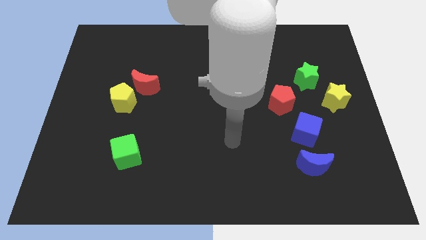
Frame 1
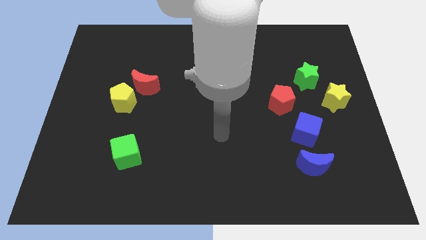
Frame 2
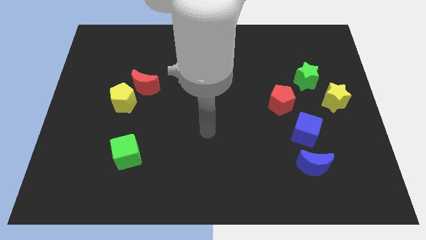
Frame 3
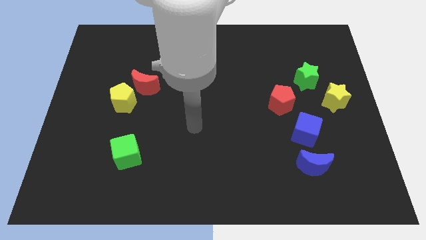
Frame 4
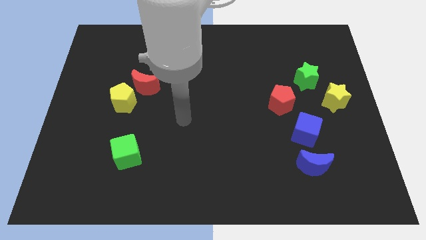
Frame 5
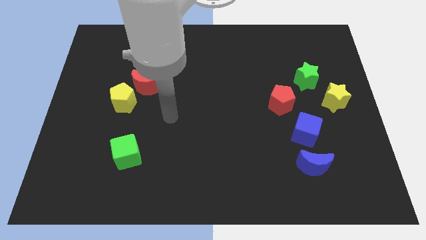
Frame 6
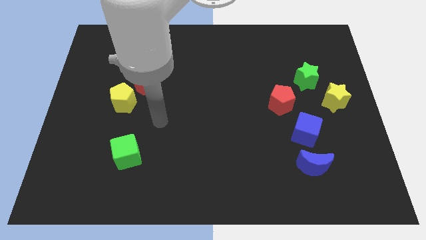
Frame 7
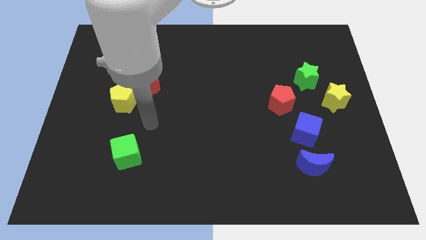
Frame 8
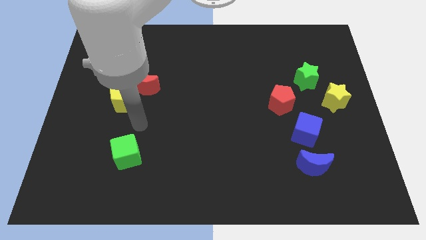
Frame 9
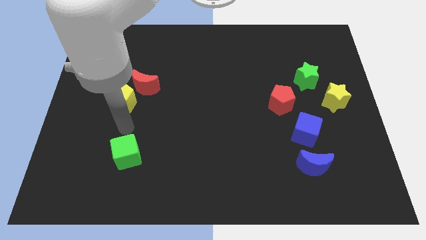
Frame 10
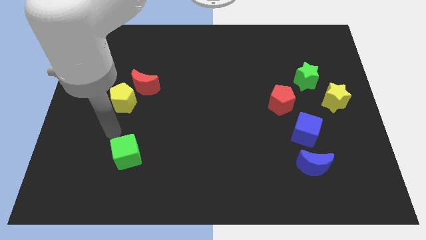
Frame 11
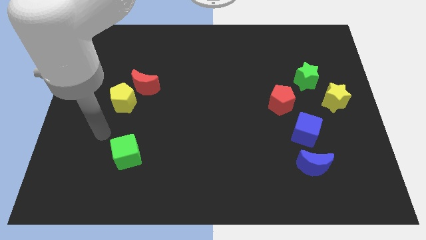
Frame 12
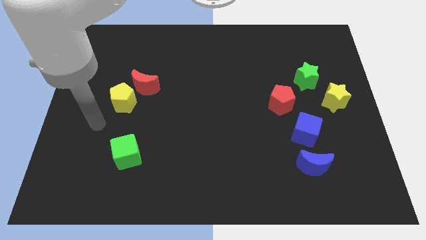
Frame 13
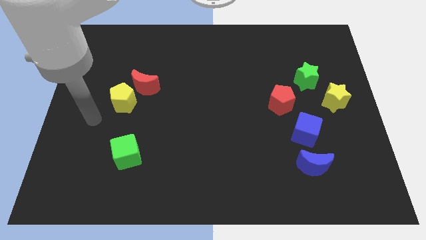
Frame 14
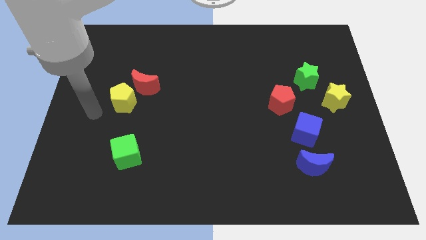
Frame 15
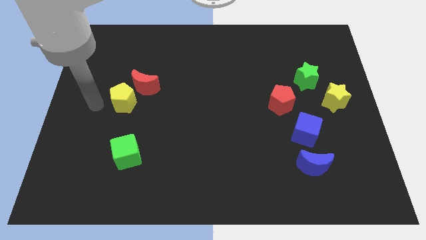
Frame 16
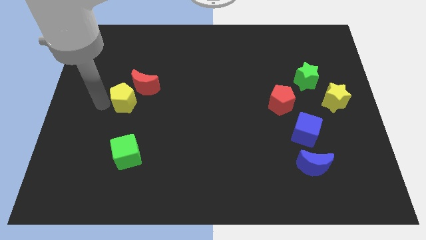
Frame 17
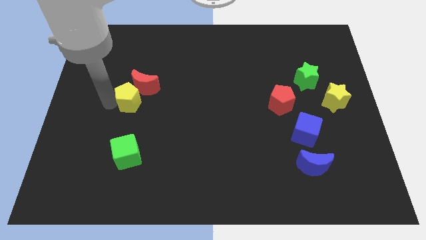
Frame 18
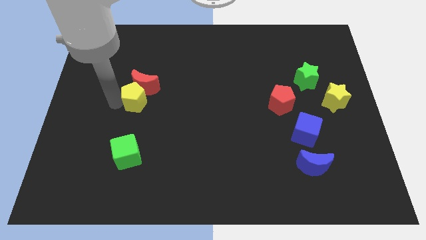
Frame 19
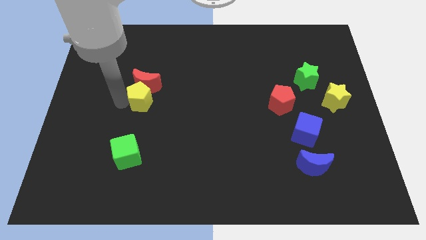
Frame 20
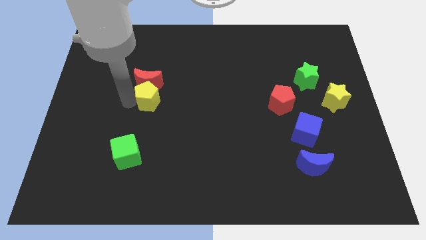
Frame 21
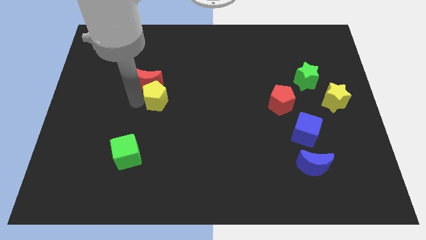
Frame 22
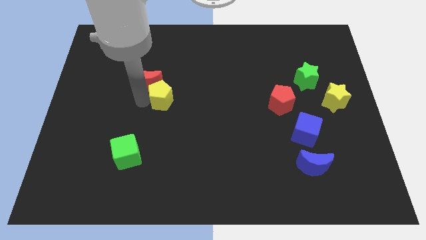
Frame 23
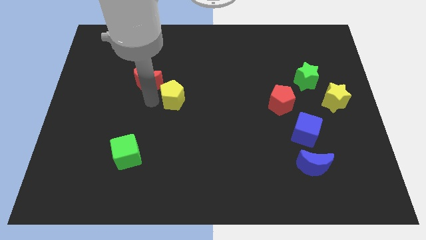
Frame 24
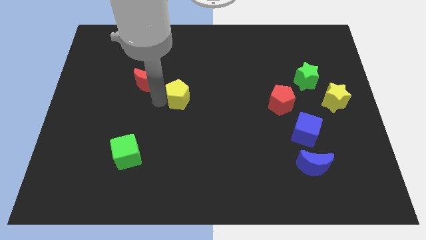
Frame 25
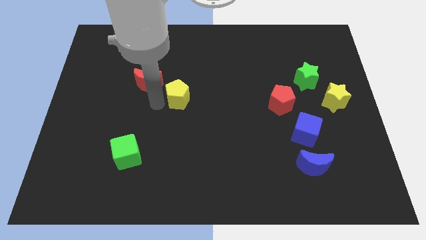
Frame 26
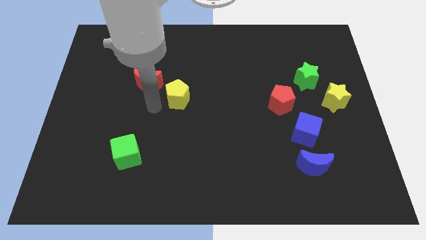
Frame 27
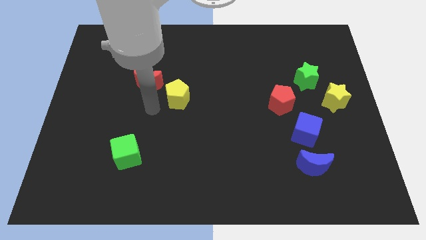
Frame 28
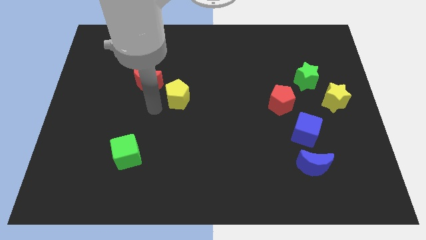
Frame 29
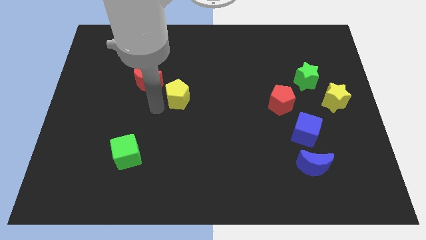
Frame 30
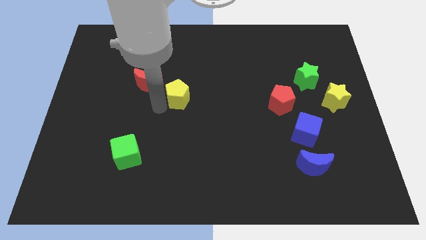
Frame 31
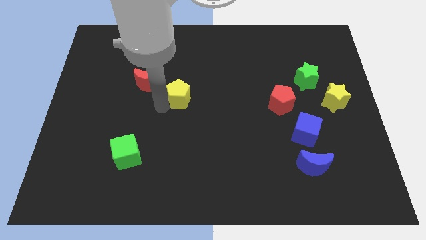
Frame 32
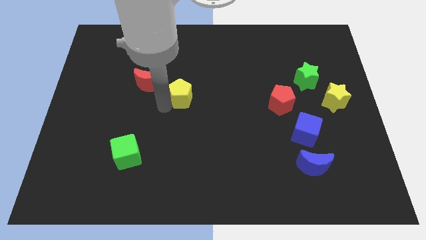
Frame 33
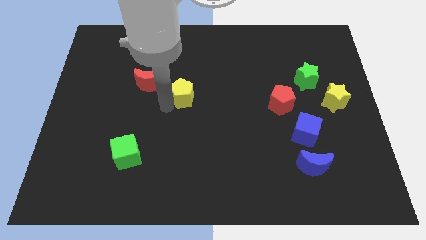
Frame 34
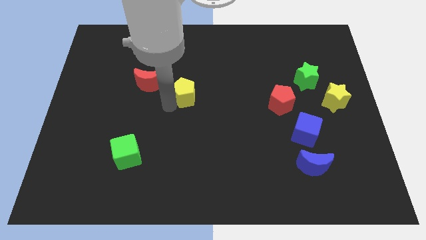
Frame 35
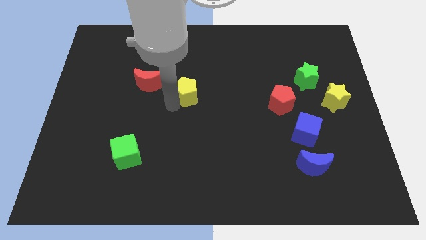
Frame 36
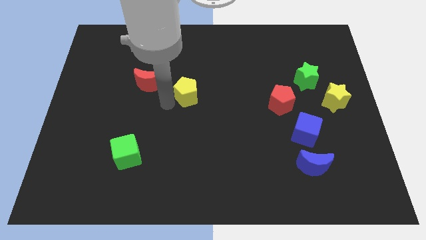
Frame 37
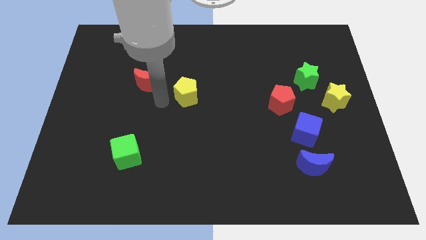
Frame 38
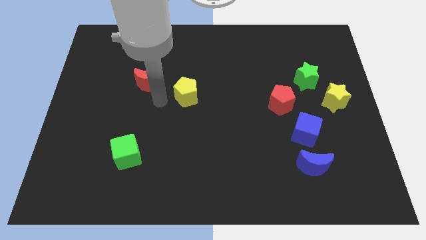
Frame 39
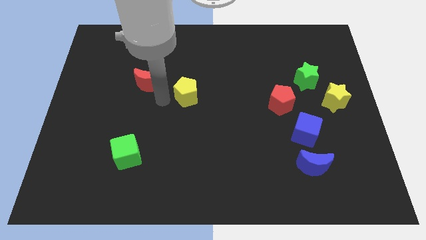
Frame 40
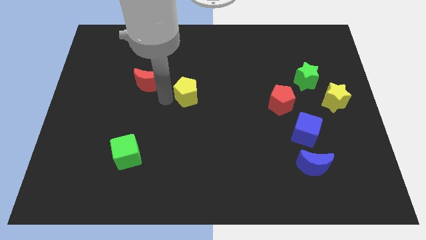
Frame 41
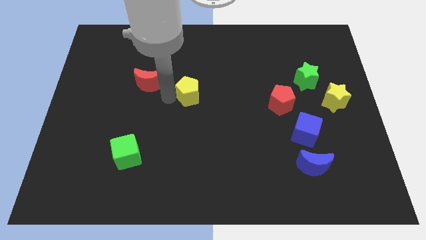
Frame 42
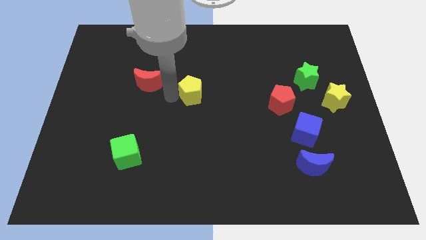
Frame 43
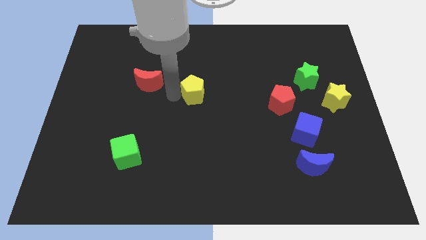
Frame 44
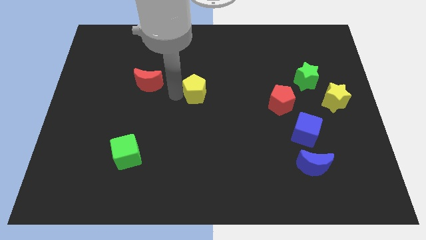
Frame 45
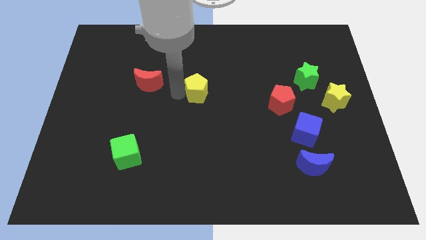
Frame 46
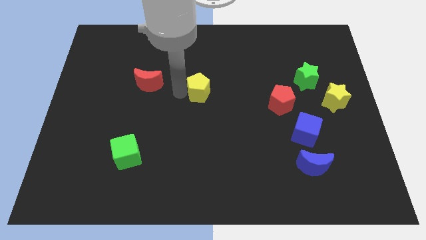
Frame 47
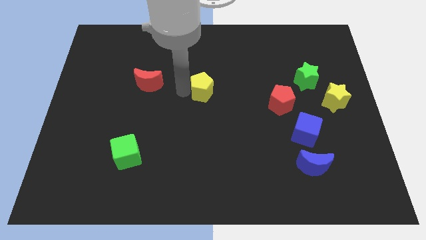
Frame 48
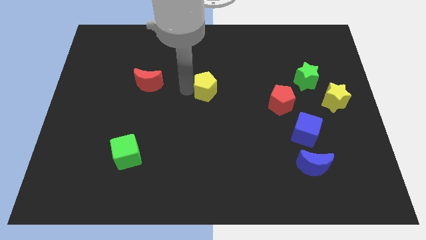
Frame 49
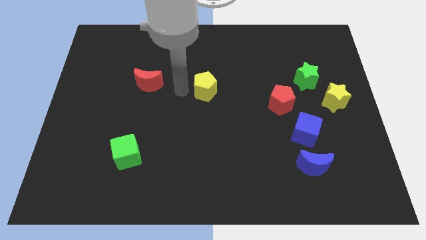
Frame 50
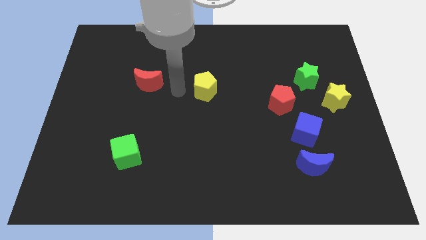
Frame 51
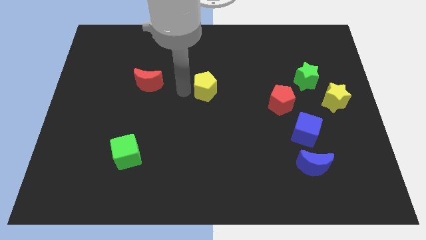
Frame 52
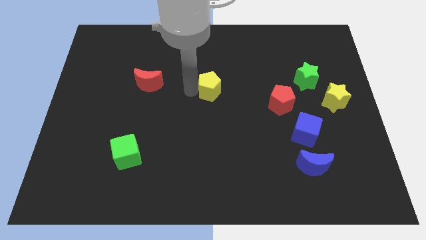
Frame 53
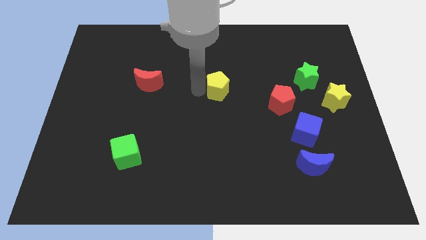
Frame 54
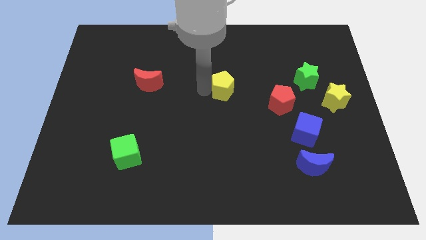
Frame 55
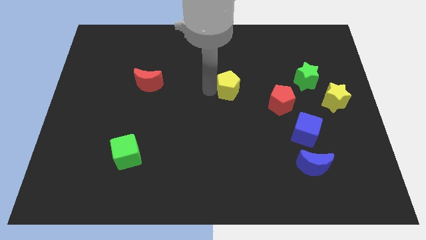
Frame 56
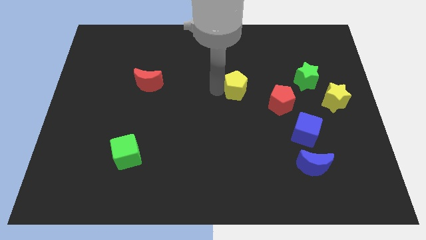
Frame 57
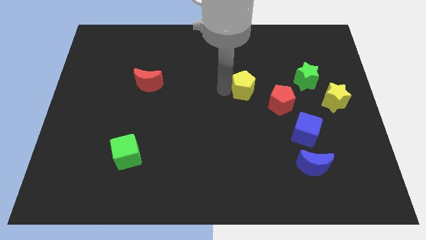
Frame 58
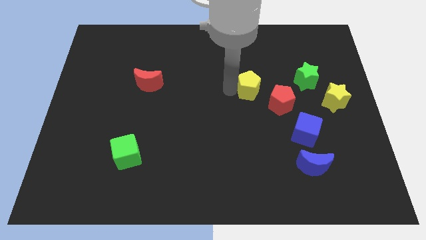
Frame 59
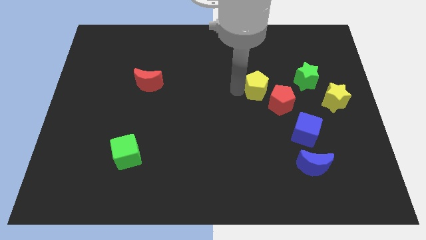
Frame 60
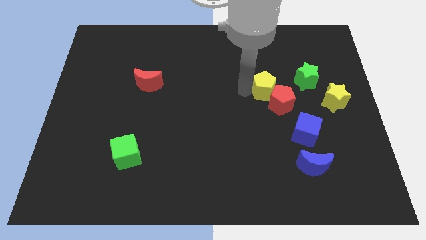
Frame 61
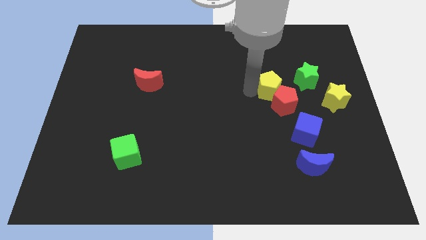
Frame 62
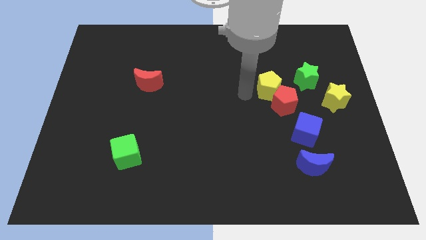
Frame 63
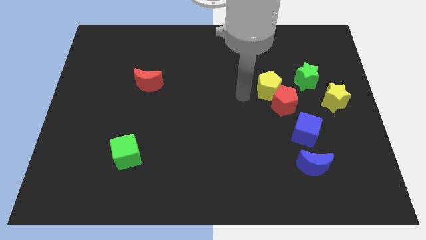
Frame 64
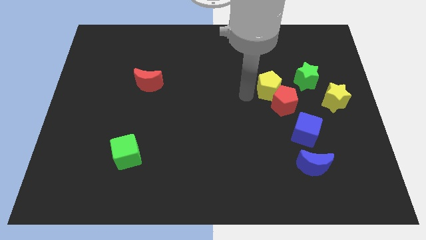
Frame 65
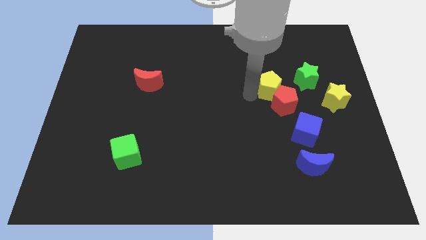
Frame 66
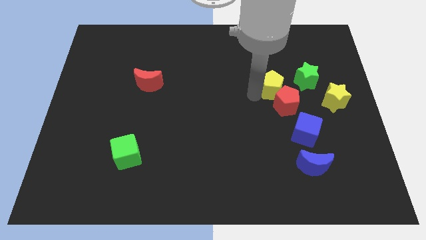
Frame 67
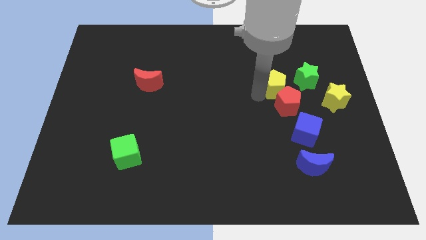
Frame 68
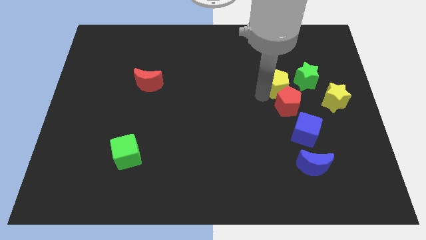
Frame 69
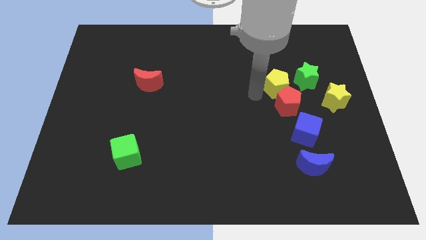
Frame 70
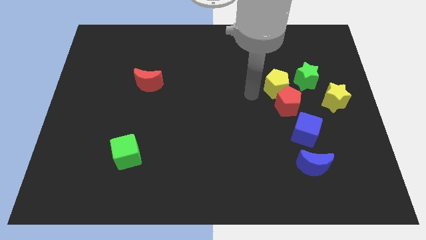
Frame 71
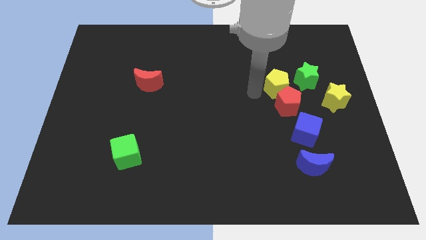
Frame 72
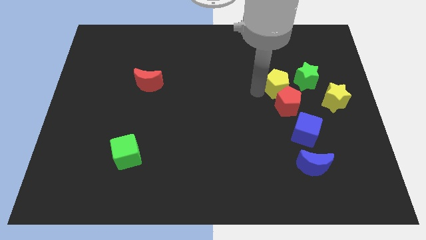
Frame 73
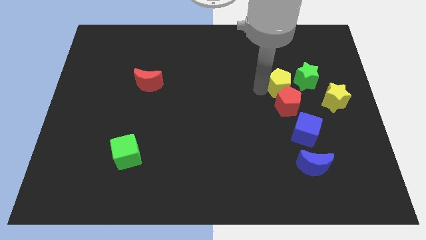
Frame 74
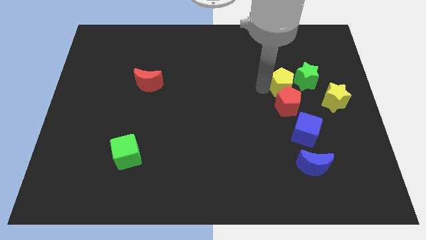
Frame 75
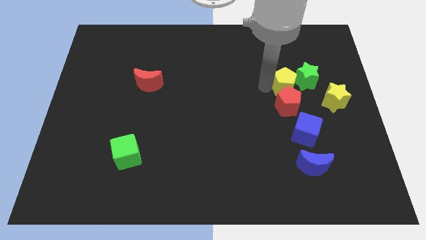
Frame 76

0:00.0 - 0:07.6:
push the yellow pentagon close to the green star

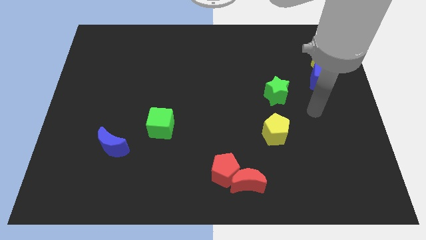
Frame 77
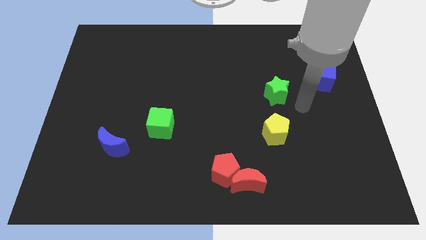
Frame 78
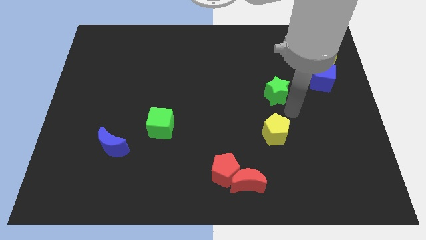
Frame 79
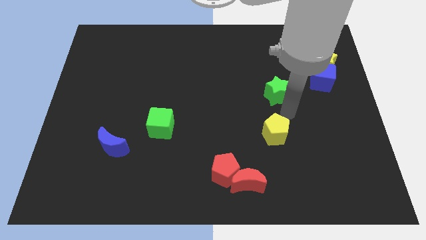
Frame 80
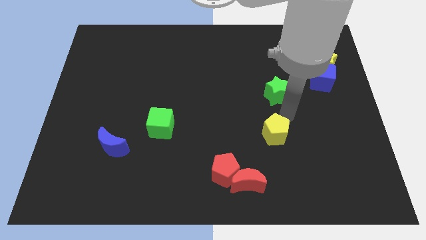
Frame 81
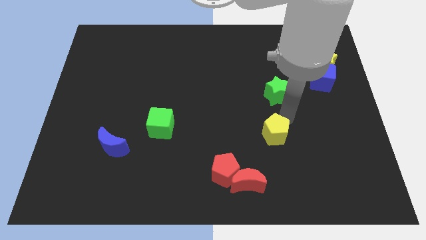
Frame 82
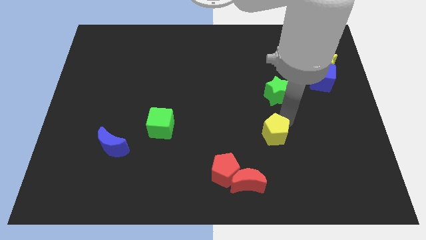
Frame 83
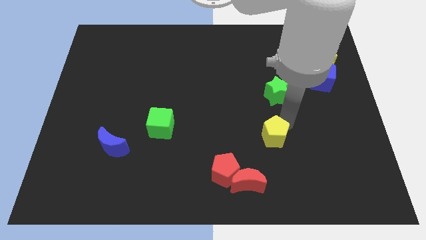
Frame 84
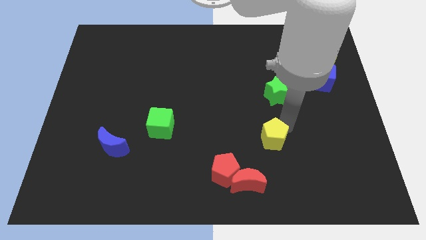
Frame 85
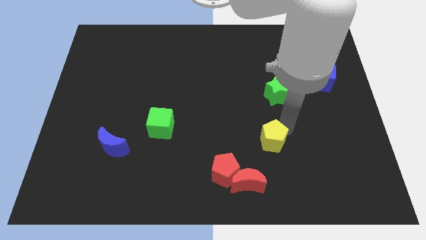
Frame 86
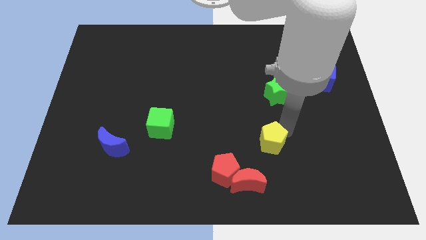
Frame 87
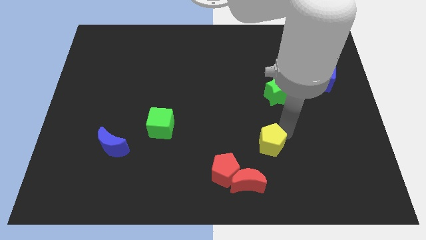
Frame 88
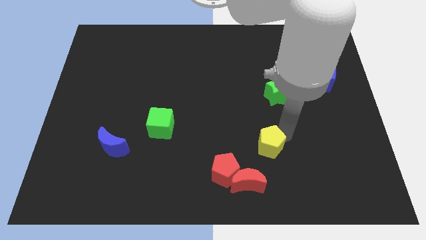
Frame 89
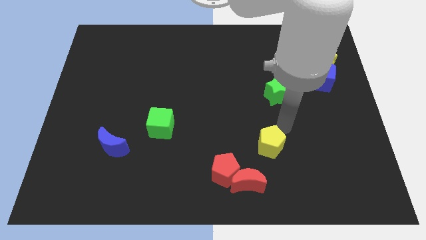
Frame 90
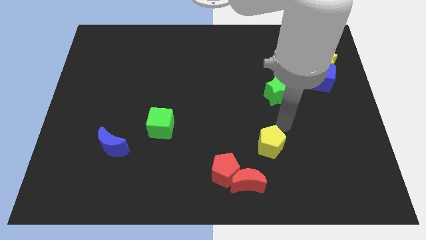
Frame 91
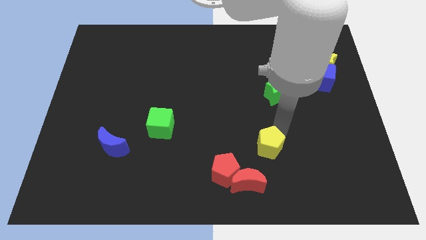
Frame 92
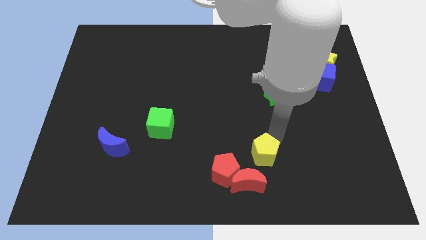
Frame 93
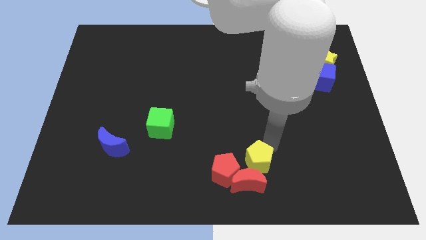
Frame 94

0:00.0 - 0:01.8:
push the yellow pentagon next to the red moon
